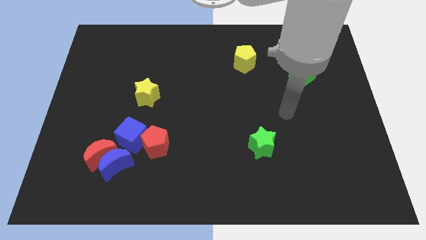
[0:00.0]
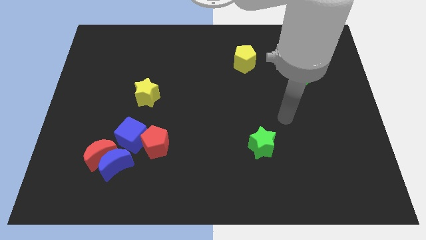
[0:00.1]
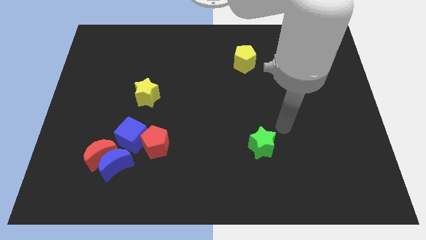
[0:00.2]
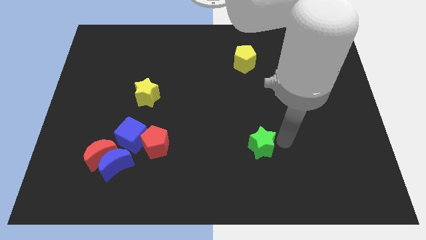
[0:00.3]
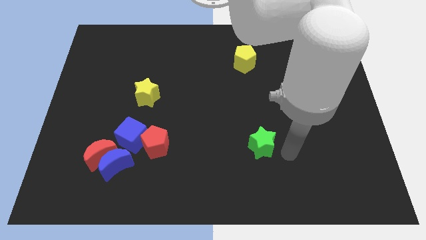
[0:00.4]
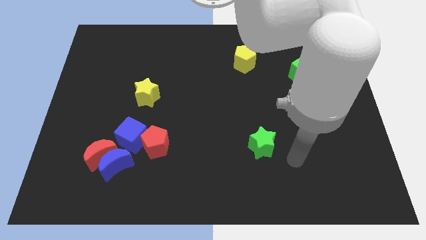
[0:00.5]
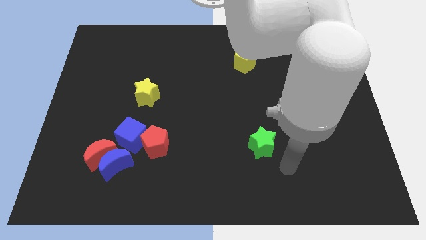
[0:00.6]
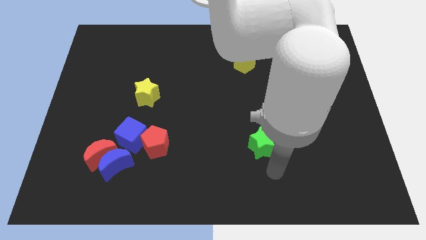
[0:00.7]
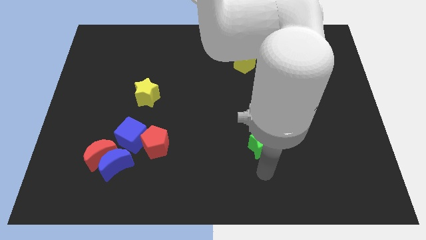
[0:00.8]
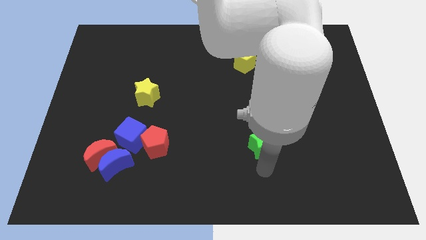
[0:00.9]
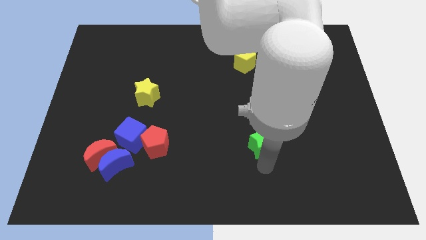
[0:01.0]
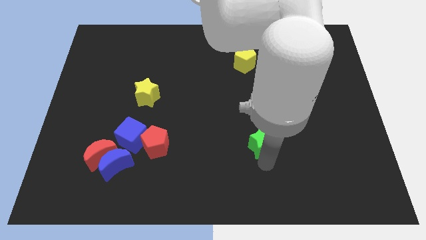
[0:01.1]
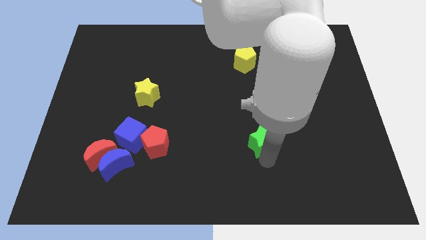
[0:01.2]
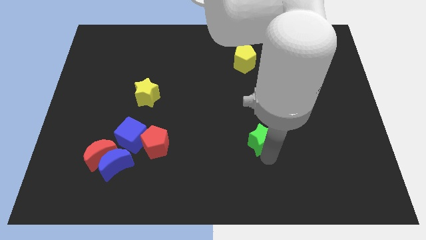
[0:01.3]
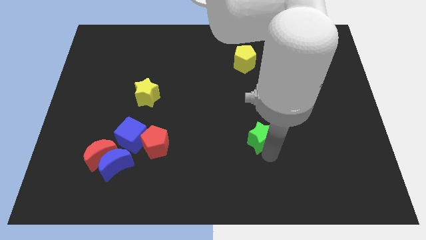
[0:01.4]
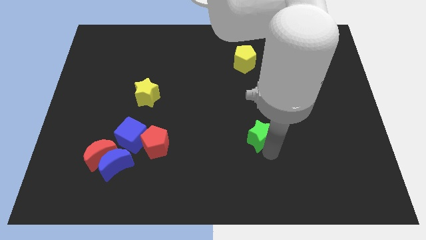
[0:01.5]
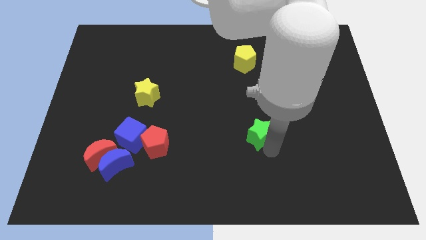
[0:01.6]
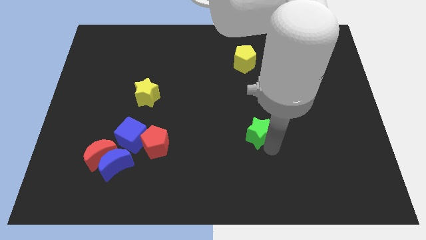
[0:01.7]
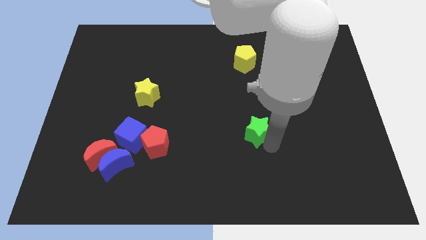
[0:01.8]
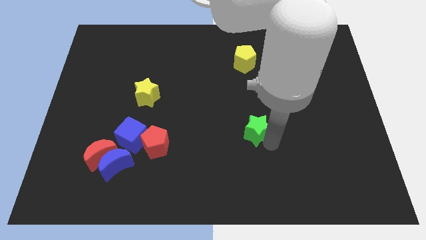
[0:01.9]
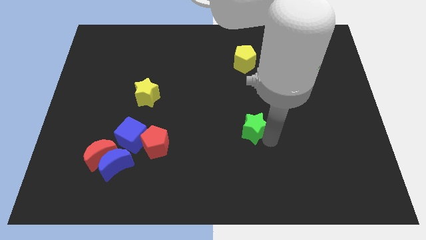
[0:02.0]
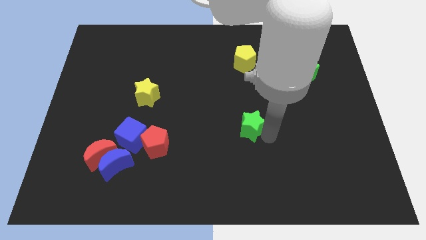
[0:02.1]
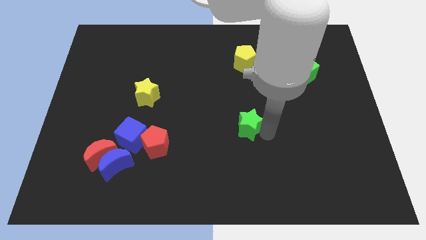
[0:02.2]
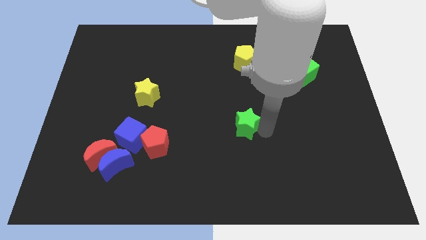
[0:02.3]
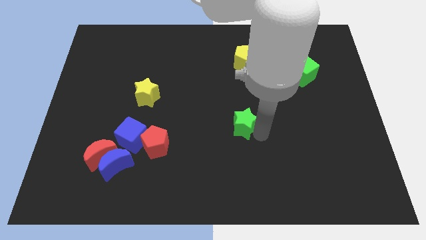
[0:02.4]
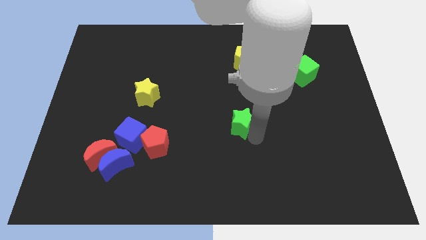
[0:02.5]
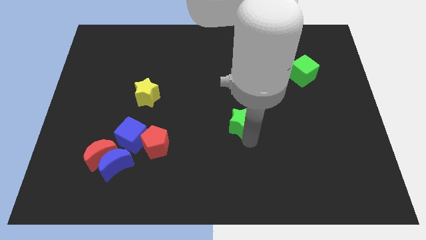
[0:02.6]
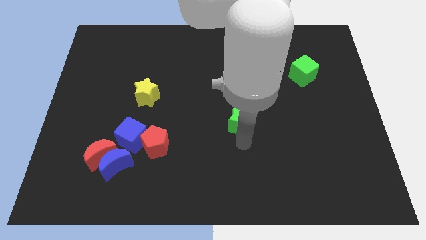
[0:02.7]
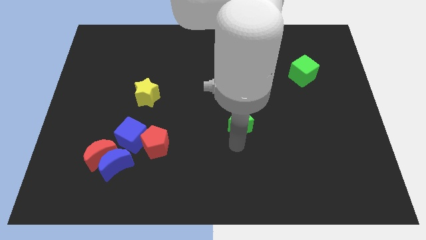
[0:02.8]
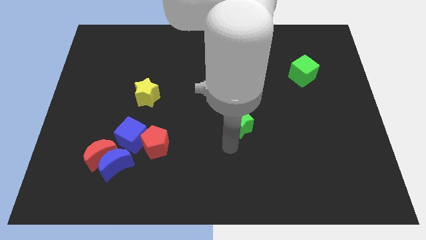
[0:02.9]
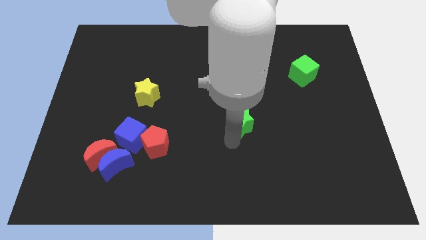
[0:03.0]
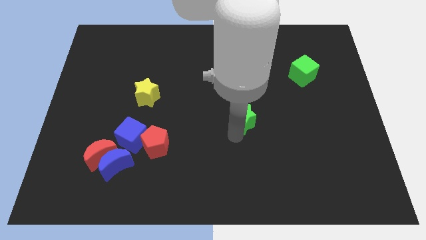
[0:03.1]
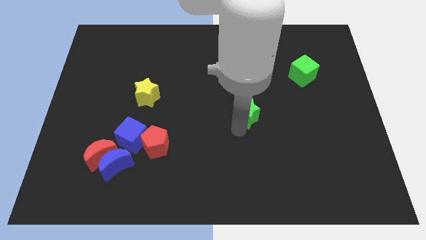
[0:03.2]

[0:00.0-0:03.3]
slightly push the green star upwards

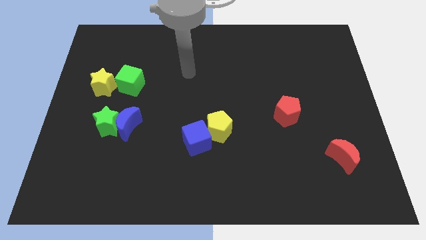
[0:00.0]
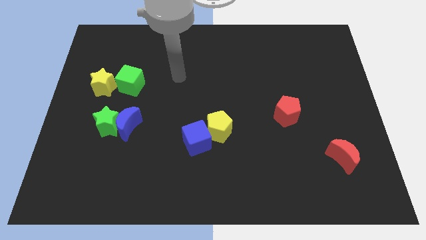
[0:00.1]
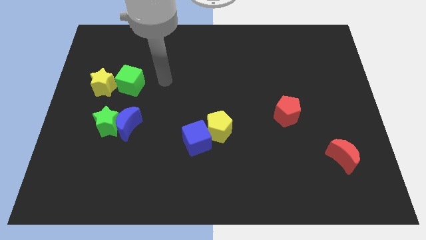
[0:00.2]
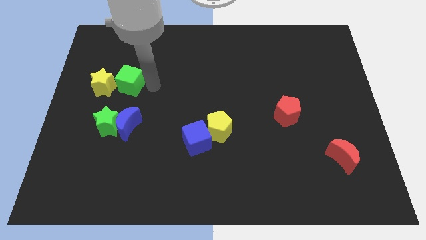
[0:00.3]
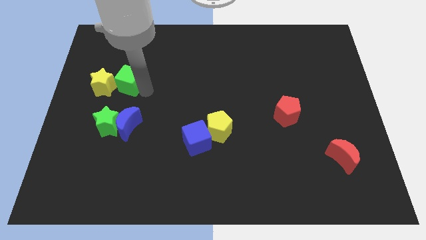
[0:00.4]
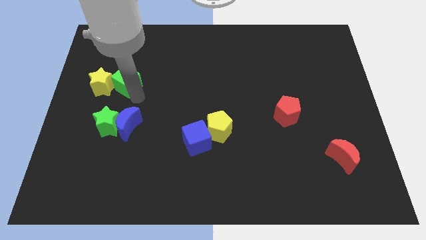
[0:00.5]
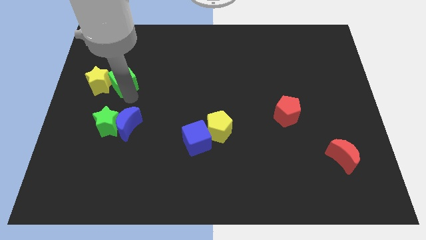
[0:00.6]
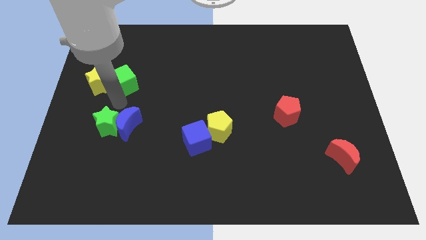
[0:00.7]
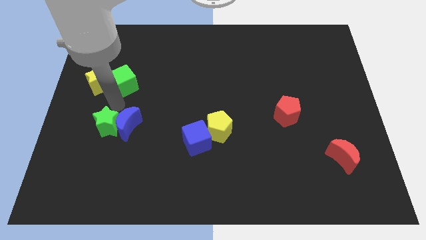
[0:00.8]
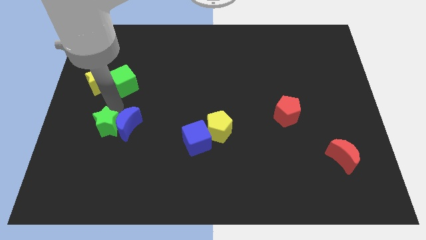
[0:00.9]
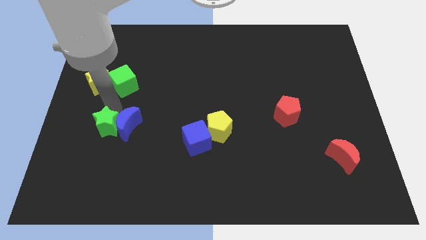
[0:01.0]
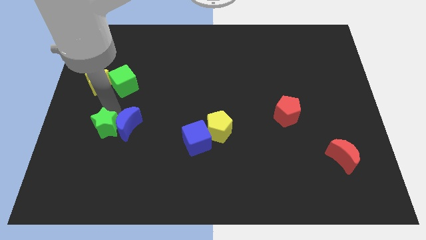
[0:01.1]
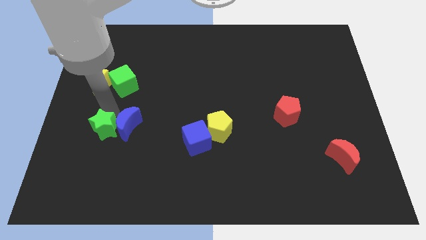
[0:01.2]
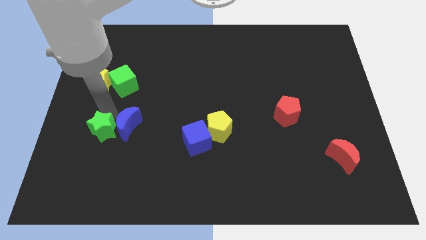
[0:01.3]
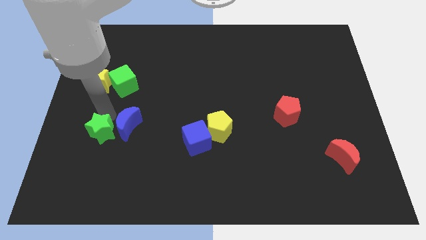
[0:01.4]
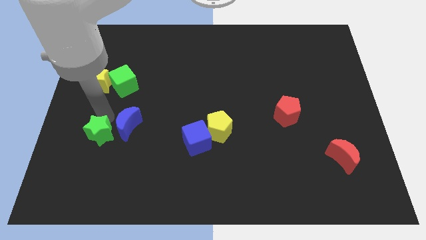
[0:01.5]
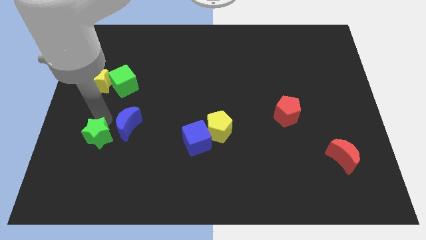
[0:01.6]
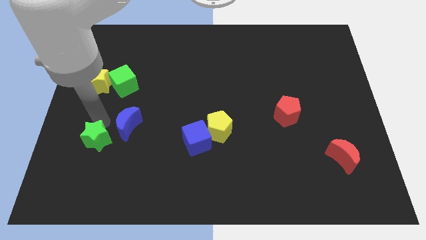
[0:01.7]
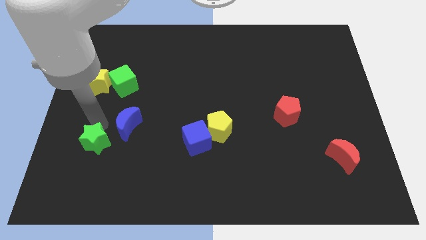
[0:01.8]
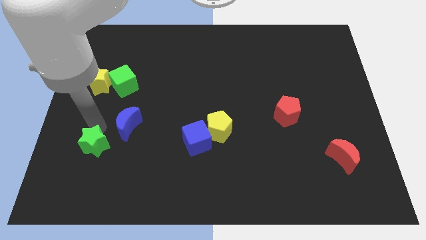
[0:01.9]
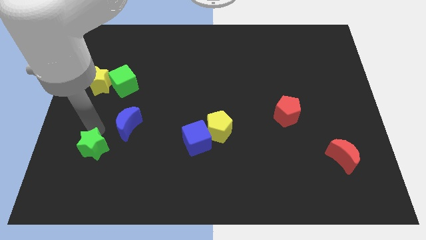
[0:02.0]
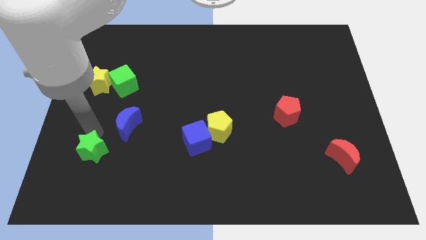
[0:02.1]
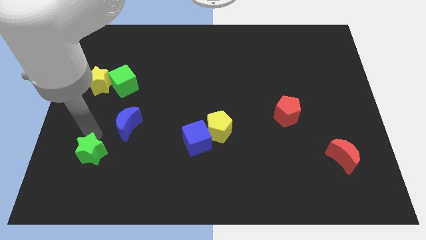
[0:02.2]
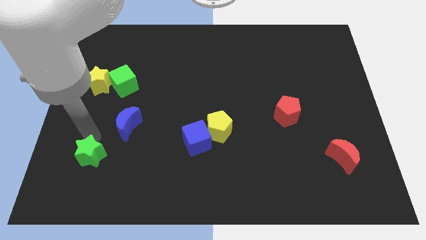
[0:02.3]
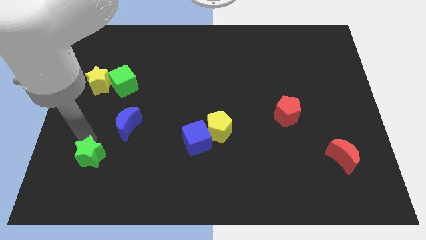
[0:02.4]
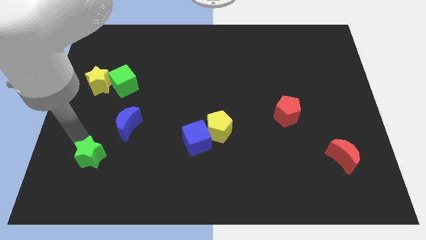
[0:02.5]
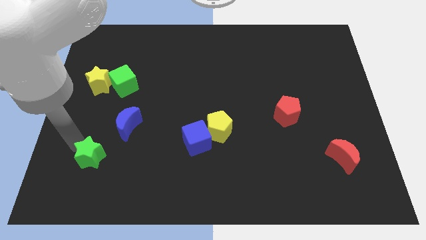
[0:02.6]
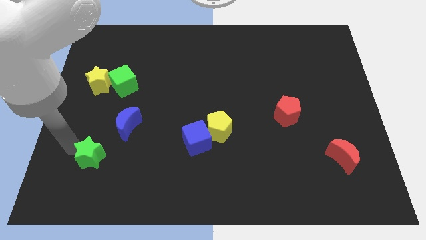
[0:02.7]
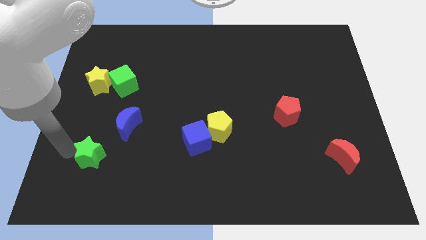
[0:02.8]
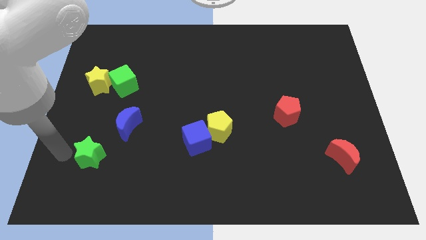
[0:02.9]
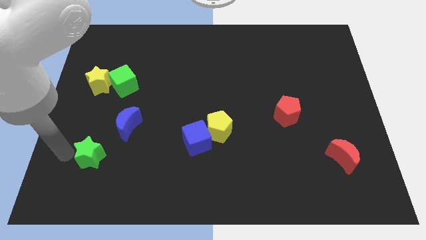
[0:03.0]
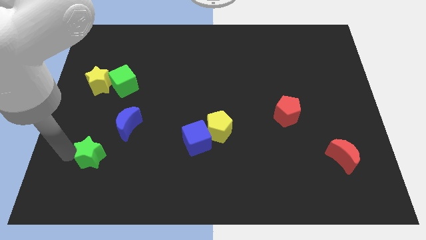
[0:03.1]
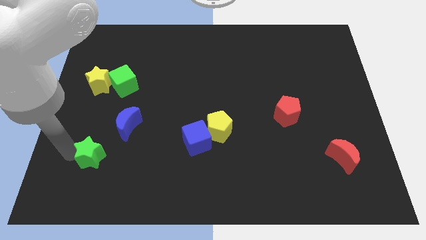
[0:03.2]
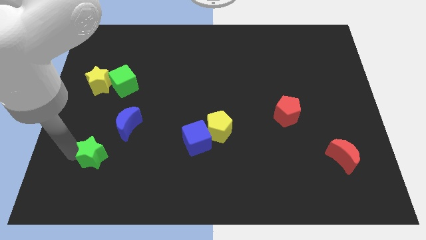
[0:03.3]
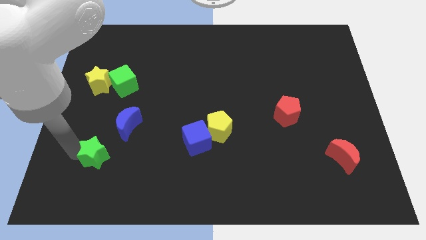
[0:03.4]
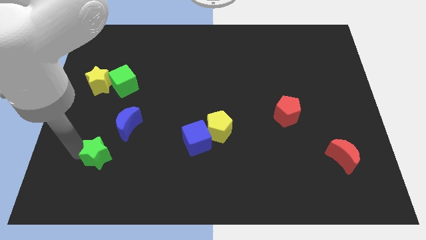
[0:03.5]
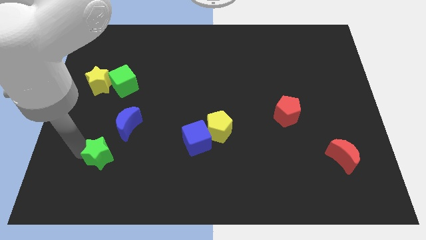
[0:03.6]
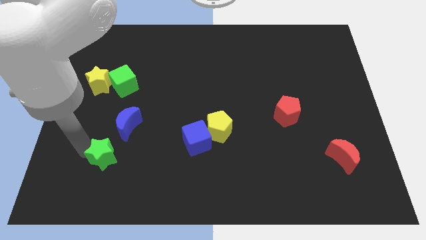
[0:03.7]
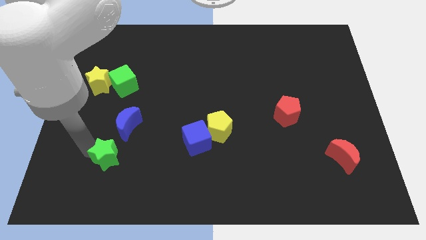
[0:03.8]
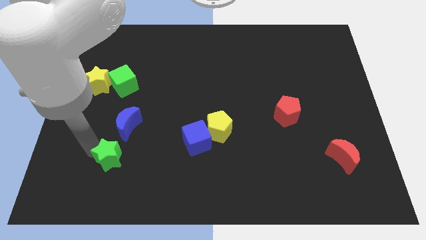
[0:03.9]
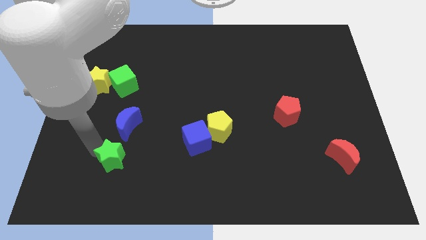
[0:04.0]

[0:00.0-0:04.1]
slide the green star downwards and then to the right somewhat
